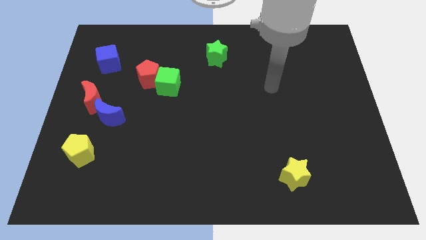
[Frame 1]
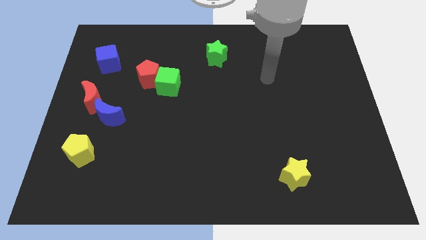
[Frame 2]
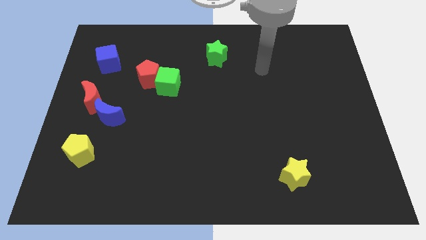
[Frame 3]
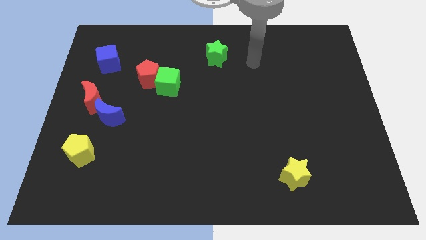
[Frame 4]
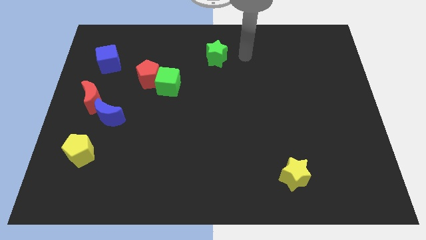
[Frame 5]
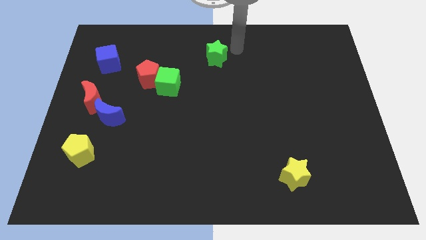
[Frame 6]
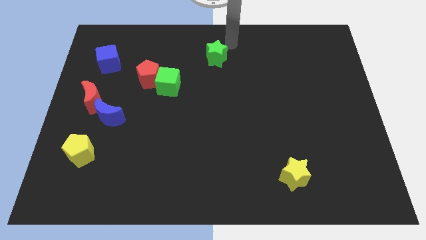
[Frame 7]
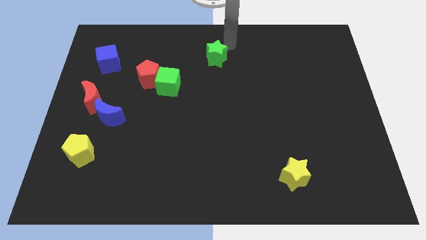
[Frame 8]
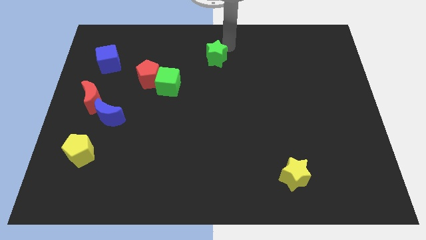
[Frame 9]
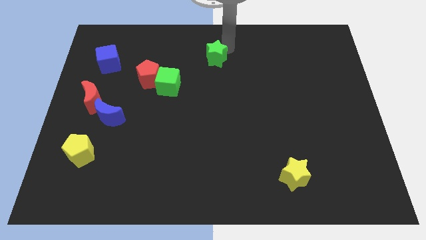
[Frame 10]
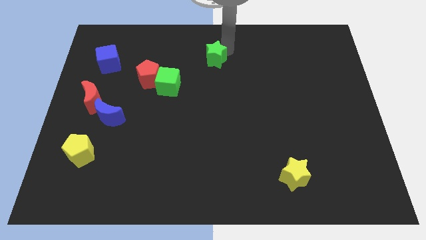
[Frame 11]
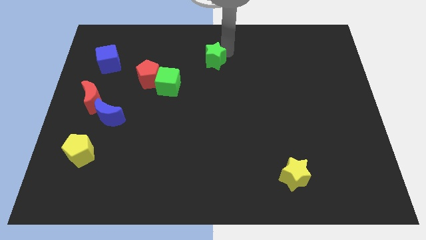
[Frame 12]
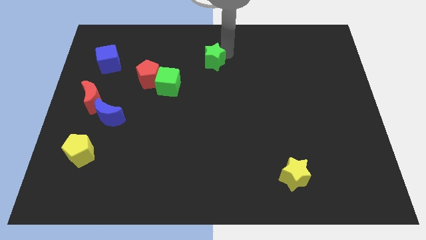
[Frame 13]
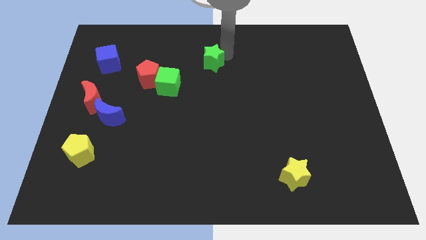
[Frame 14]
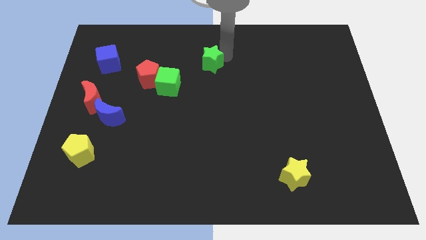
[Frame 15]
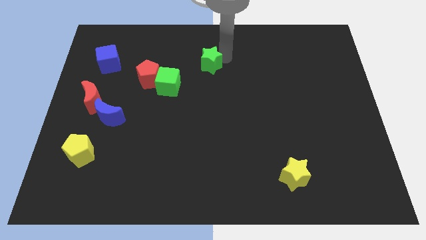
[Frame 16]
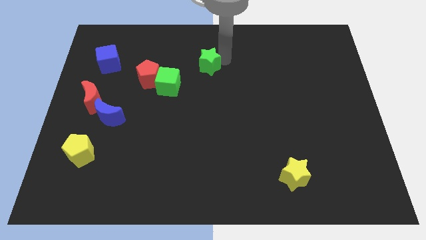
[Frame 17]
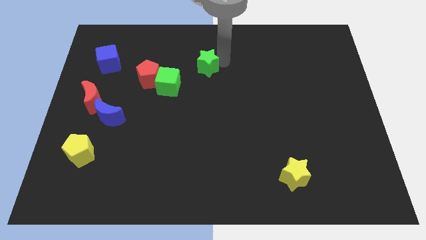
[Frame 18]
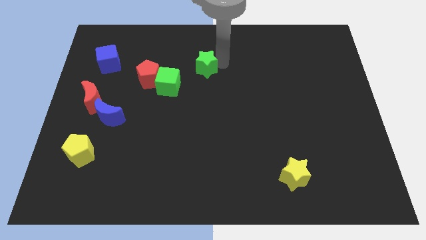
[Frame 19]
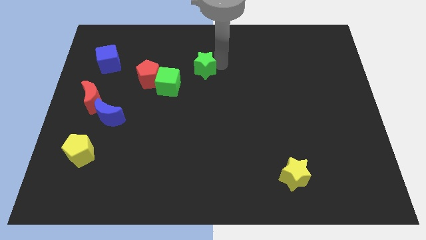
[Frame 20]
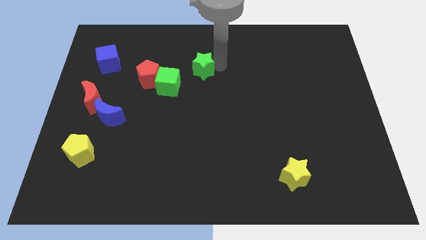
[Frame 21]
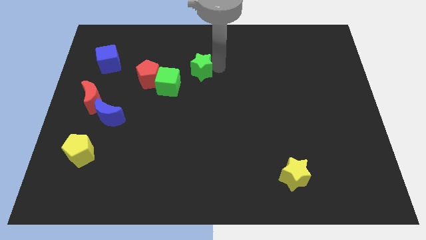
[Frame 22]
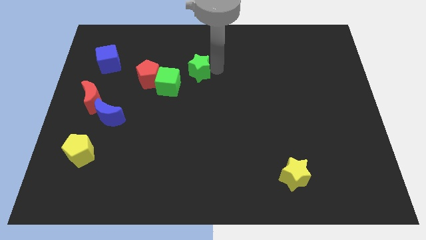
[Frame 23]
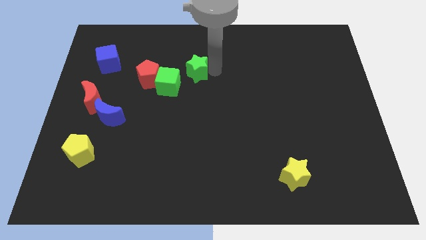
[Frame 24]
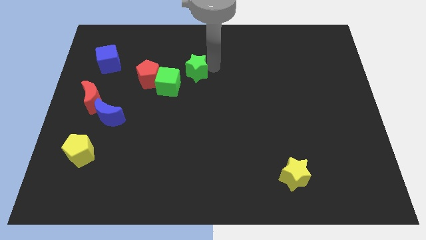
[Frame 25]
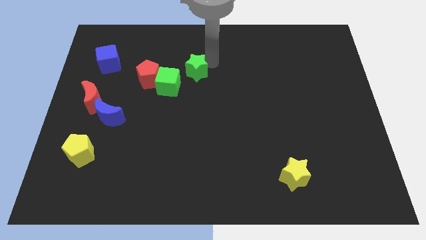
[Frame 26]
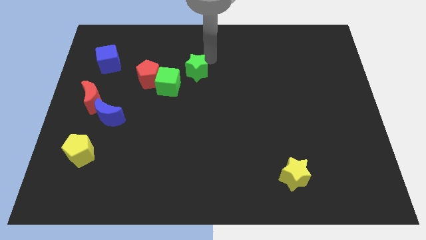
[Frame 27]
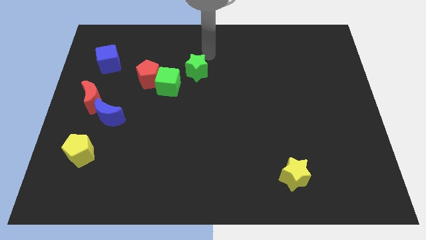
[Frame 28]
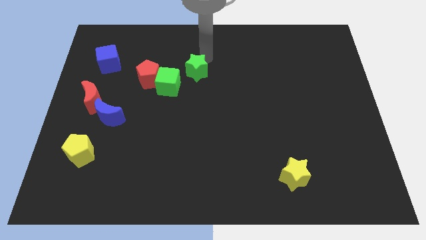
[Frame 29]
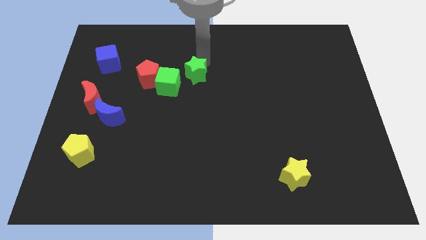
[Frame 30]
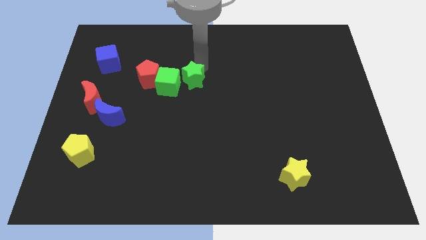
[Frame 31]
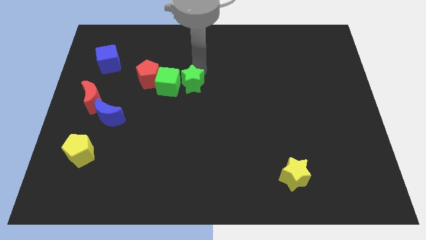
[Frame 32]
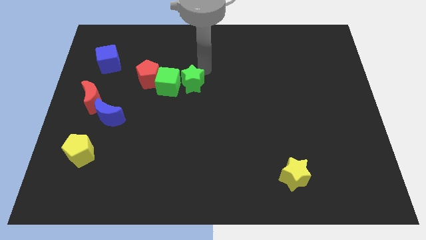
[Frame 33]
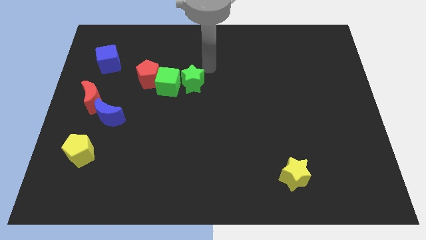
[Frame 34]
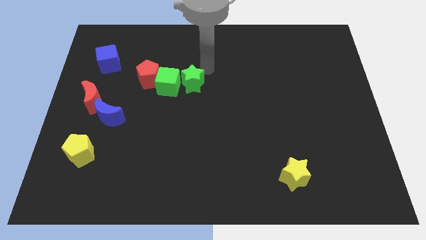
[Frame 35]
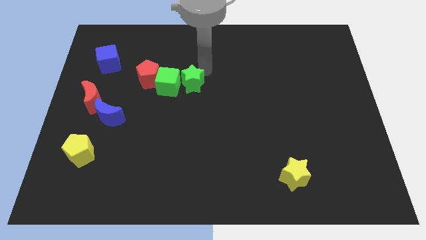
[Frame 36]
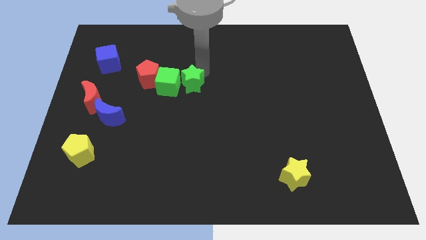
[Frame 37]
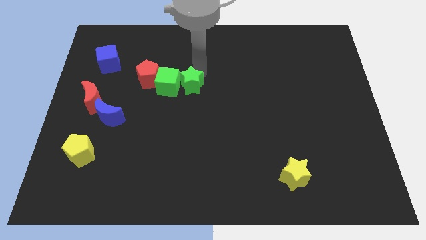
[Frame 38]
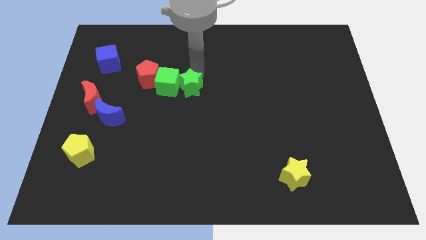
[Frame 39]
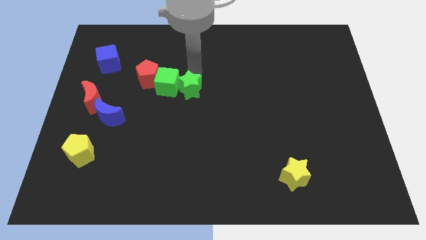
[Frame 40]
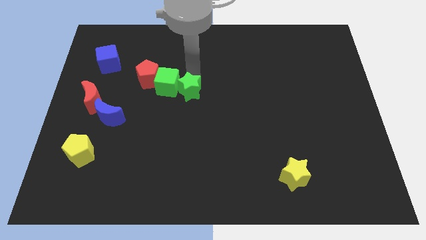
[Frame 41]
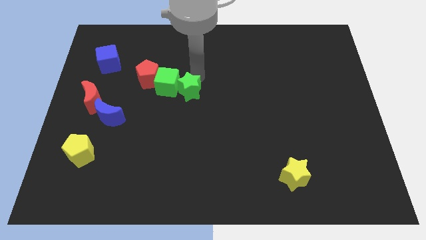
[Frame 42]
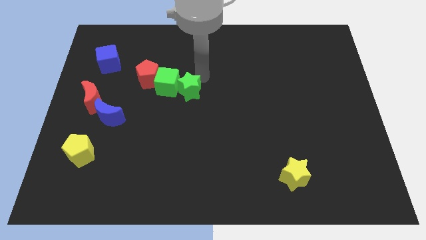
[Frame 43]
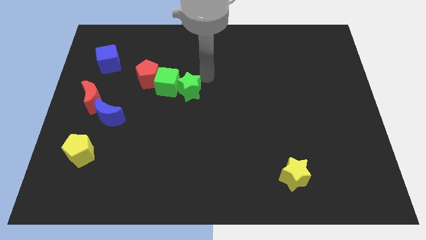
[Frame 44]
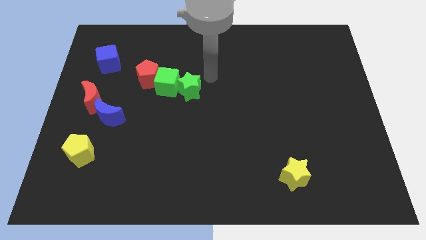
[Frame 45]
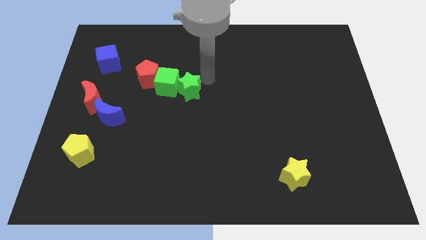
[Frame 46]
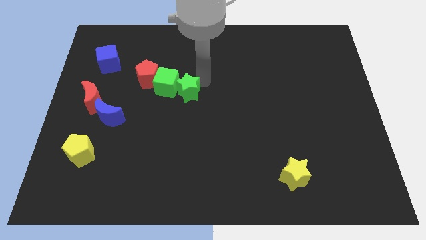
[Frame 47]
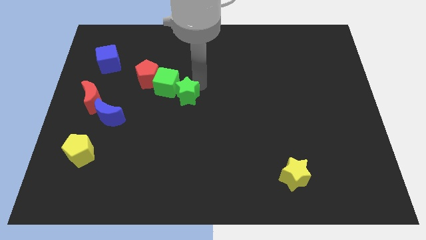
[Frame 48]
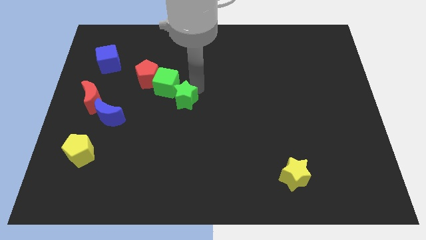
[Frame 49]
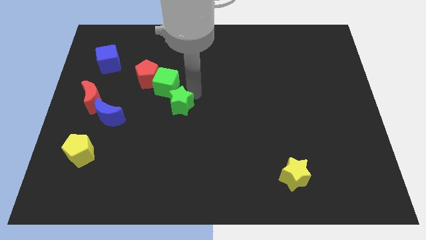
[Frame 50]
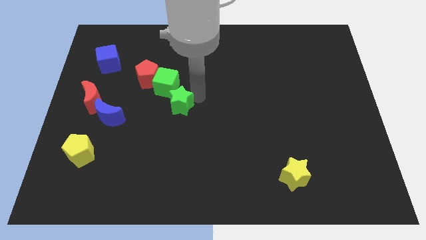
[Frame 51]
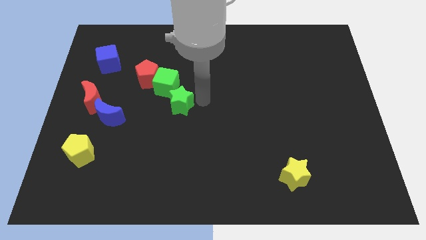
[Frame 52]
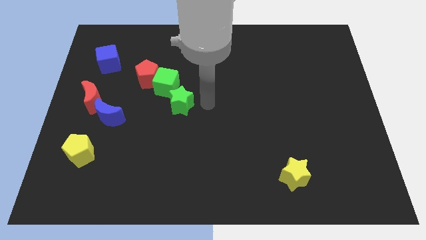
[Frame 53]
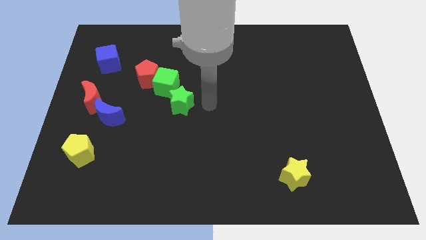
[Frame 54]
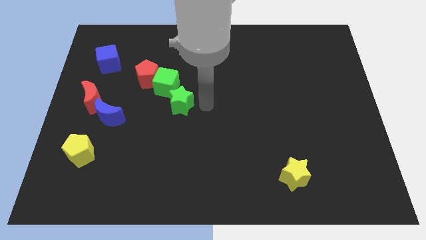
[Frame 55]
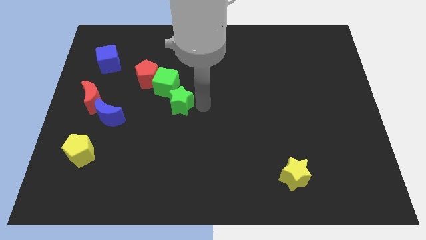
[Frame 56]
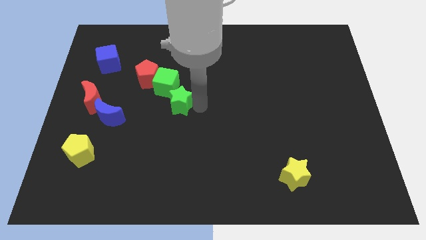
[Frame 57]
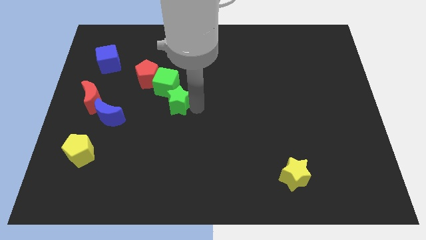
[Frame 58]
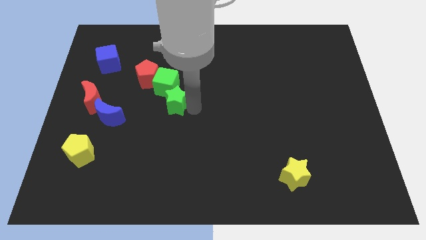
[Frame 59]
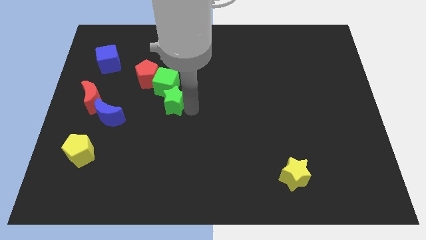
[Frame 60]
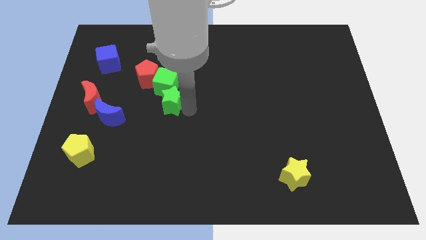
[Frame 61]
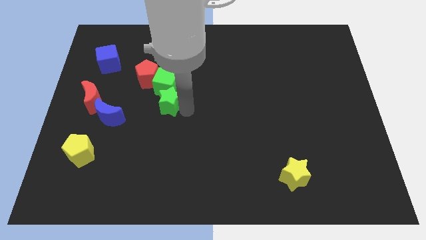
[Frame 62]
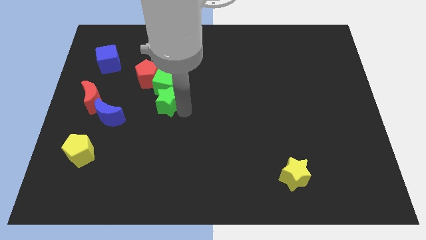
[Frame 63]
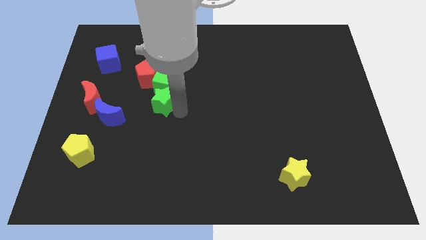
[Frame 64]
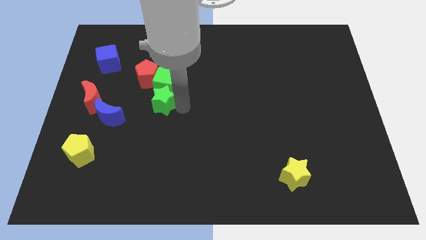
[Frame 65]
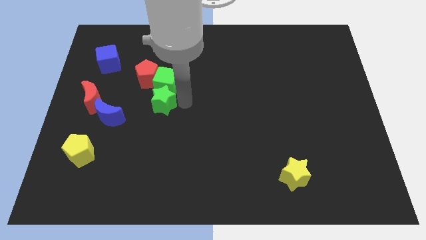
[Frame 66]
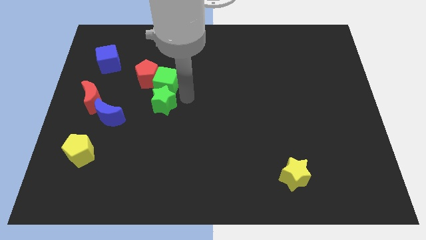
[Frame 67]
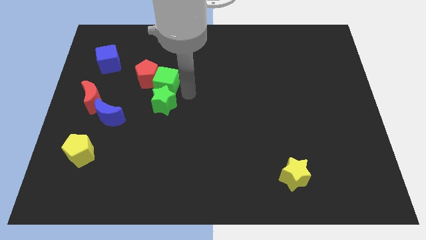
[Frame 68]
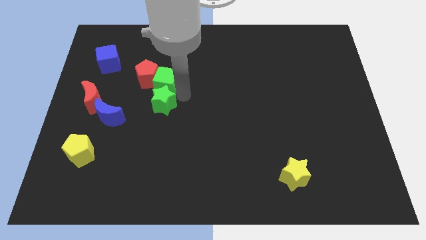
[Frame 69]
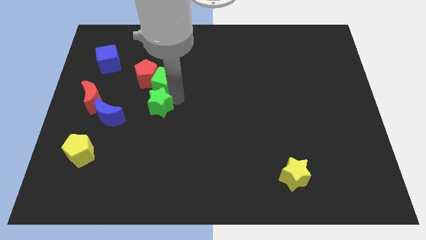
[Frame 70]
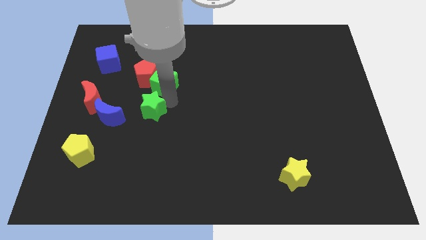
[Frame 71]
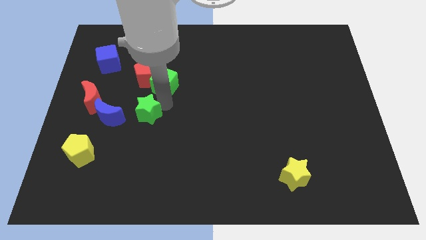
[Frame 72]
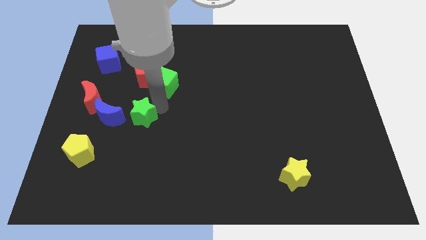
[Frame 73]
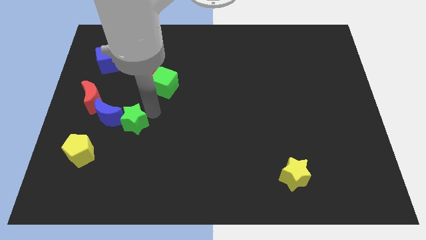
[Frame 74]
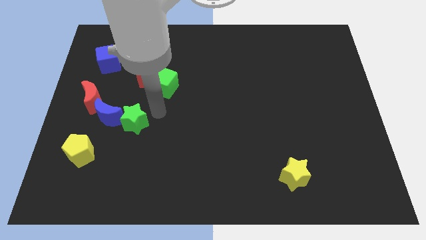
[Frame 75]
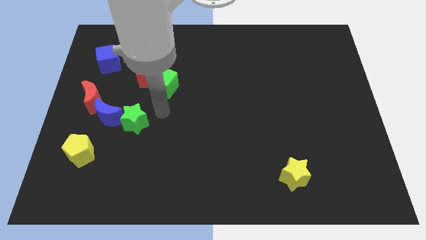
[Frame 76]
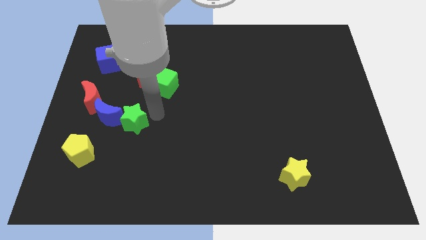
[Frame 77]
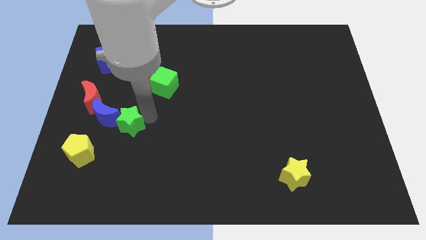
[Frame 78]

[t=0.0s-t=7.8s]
slide the green star diagonally up and to the right of the yellow pentagon
